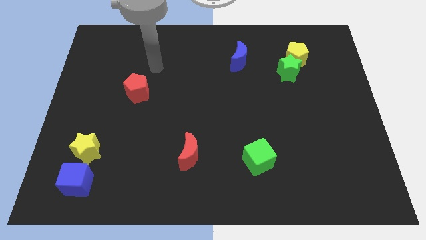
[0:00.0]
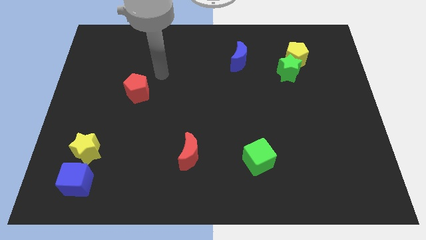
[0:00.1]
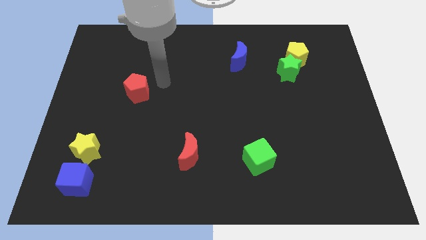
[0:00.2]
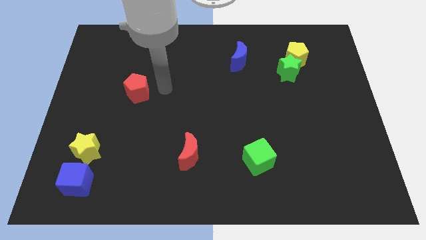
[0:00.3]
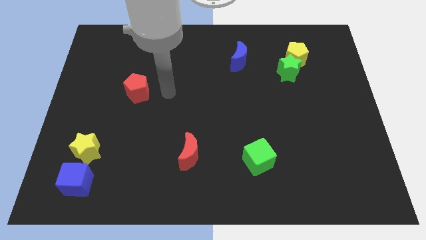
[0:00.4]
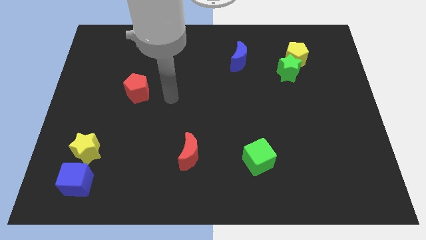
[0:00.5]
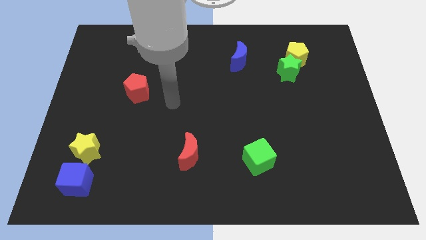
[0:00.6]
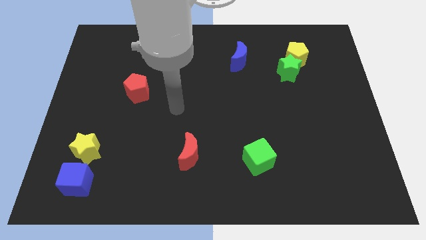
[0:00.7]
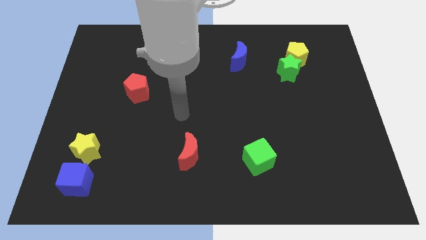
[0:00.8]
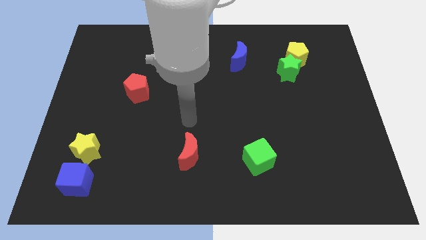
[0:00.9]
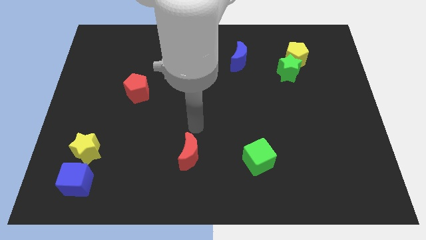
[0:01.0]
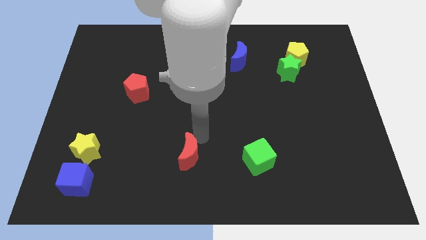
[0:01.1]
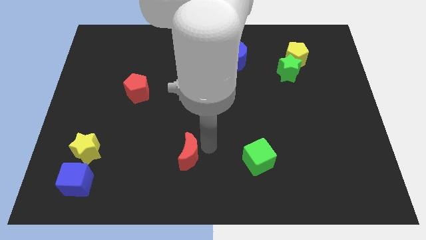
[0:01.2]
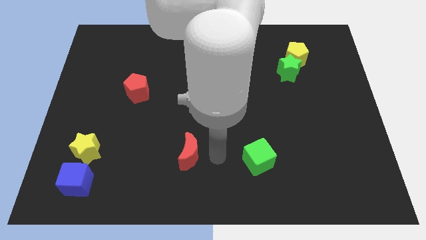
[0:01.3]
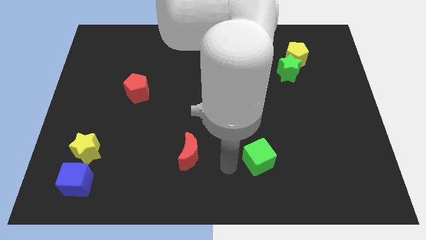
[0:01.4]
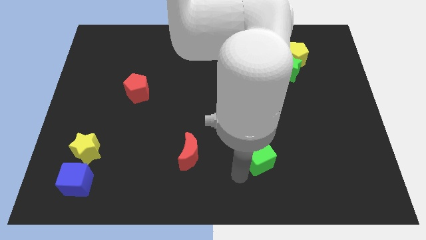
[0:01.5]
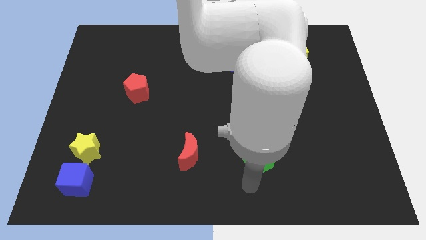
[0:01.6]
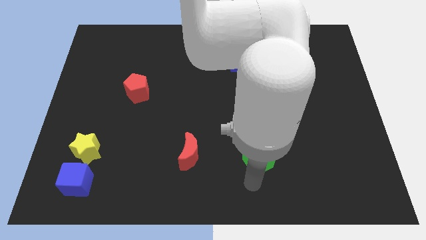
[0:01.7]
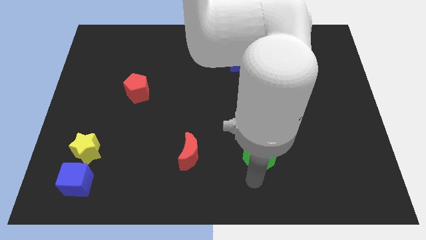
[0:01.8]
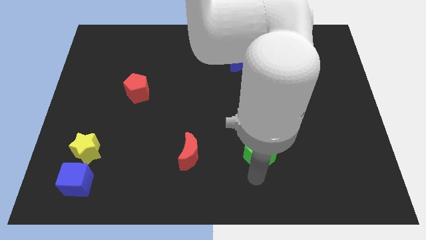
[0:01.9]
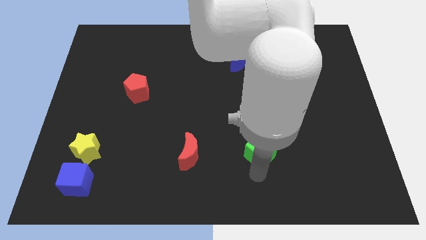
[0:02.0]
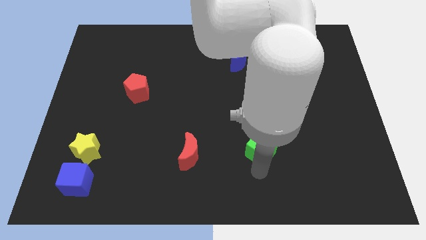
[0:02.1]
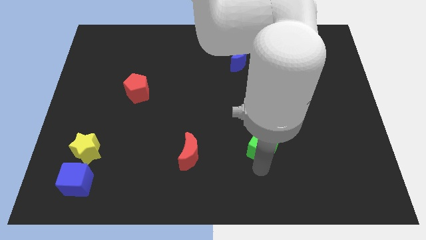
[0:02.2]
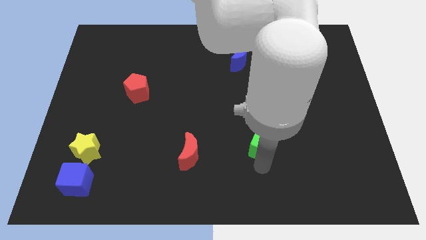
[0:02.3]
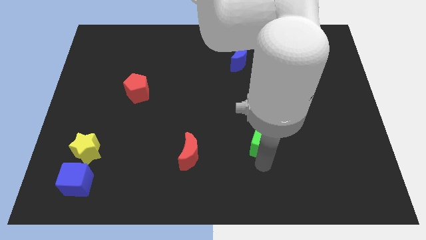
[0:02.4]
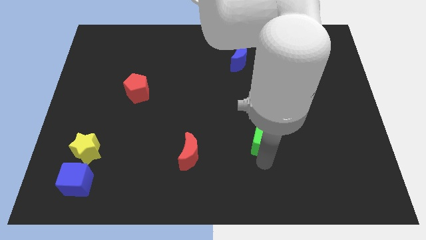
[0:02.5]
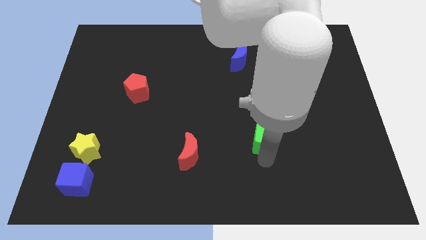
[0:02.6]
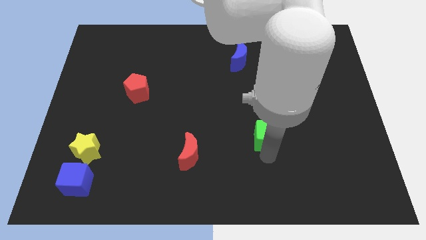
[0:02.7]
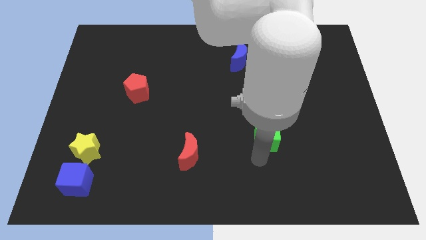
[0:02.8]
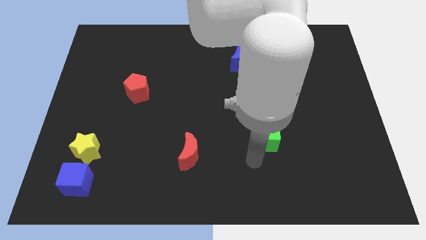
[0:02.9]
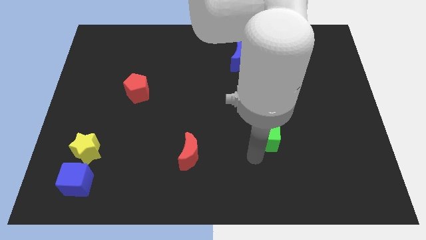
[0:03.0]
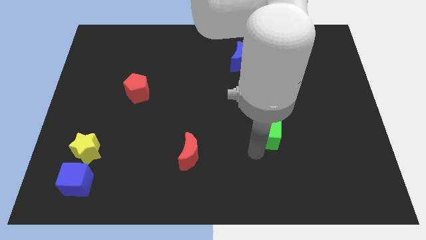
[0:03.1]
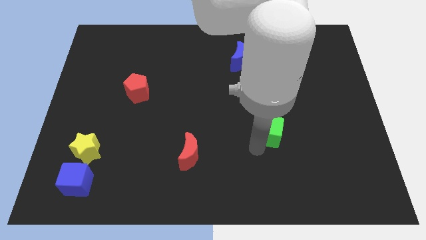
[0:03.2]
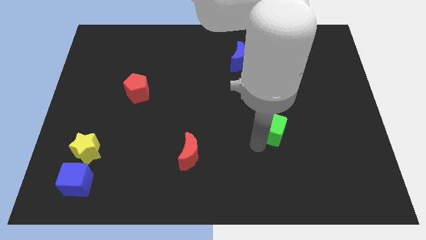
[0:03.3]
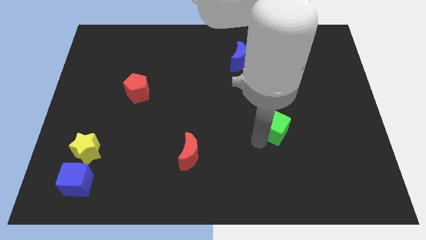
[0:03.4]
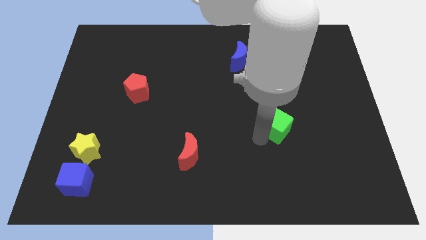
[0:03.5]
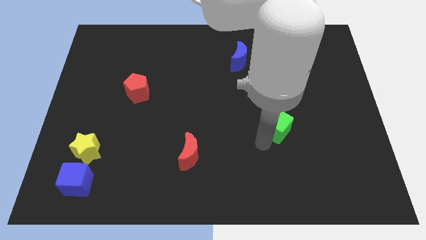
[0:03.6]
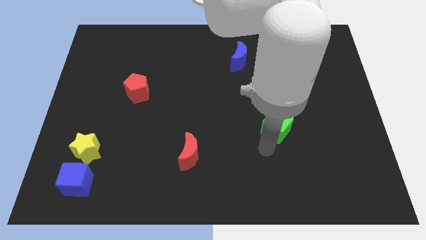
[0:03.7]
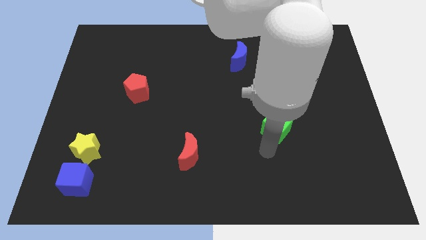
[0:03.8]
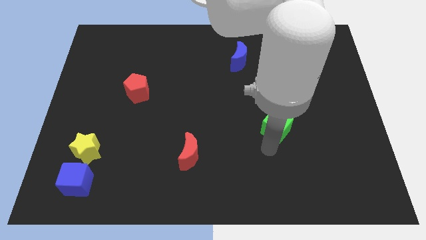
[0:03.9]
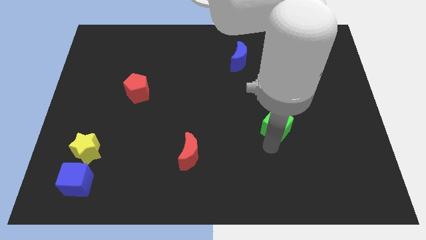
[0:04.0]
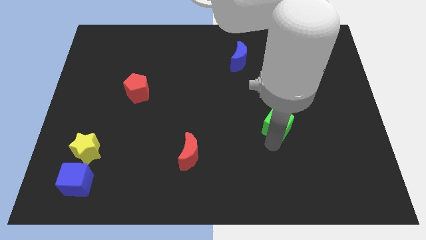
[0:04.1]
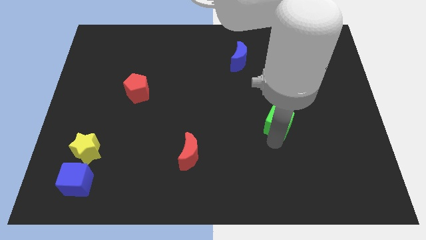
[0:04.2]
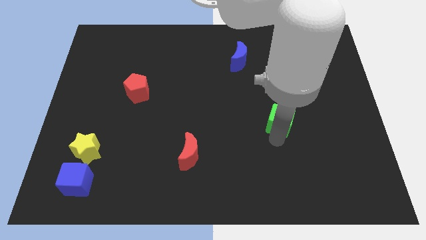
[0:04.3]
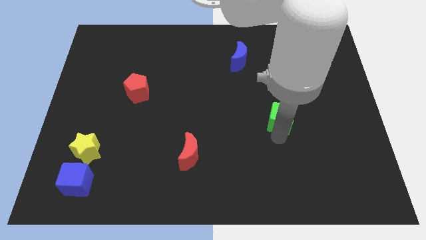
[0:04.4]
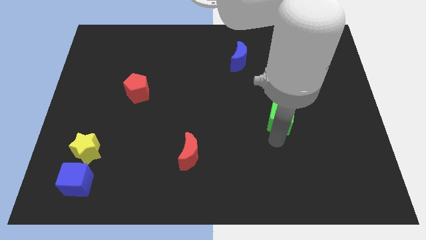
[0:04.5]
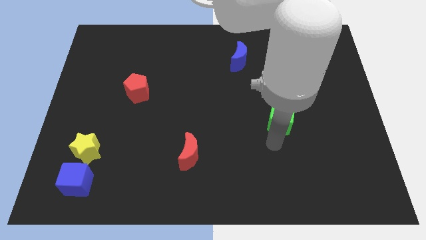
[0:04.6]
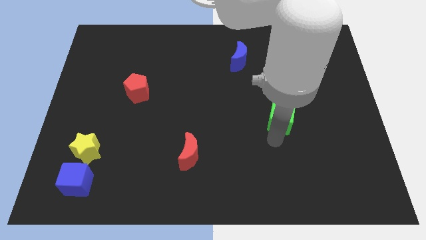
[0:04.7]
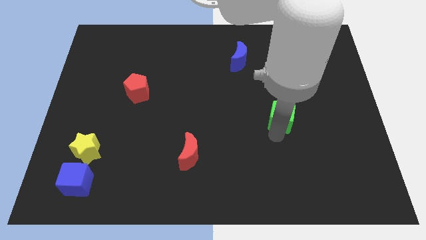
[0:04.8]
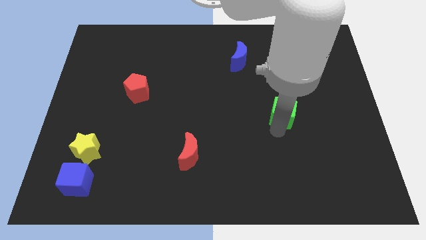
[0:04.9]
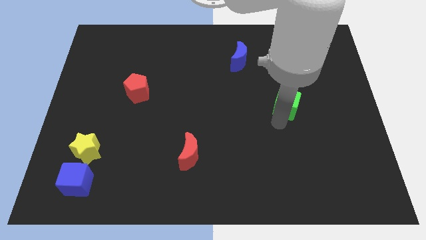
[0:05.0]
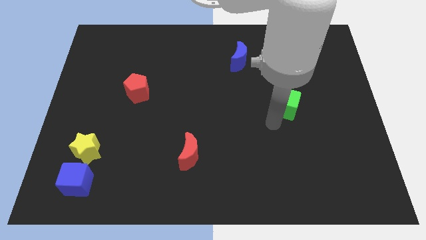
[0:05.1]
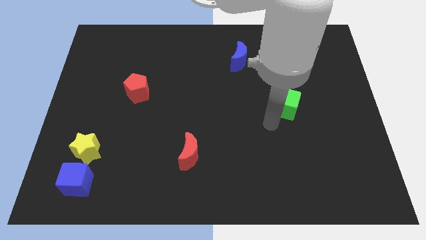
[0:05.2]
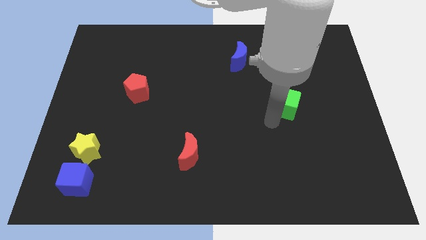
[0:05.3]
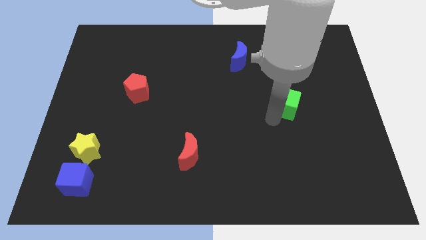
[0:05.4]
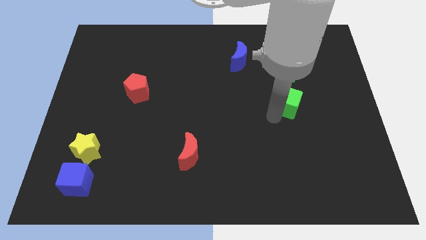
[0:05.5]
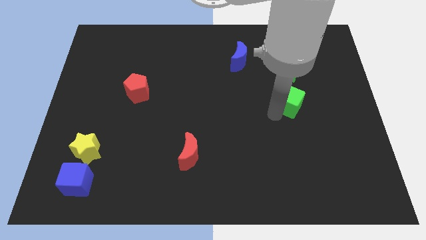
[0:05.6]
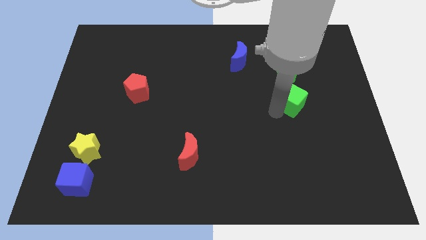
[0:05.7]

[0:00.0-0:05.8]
slide the green cube to the bottom of the yellow pentagon

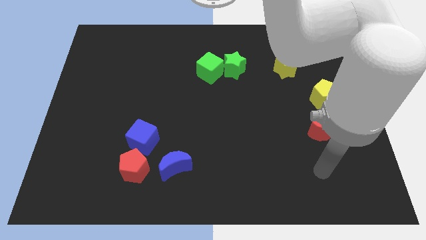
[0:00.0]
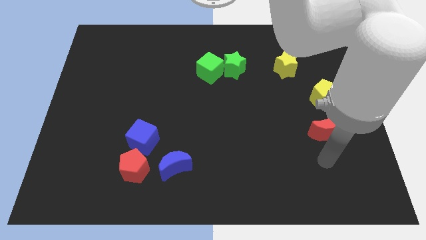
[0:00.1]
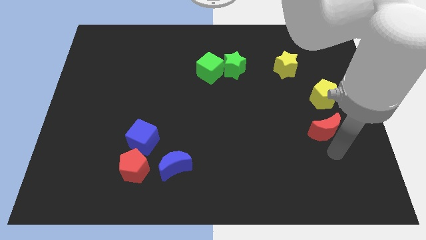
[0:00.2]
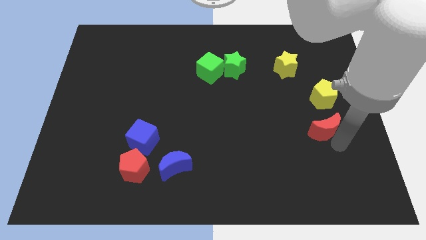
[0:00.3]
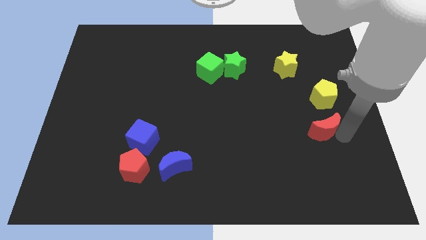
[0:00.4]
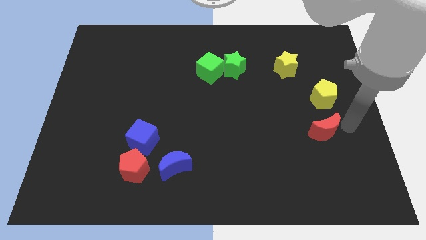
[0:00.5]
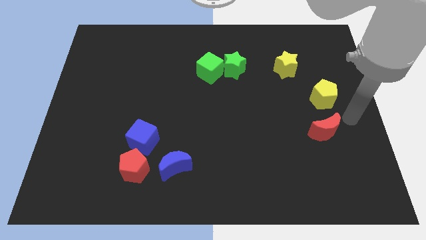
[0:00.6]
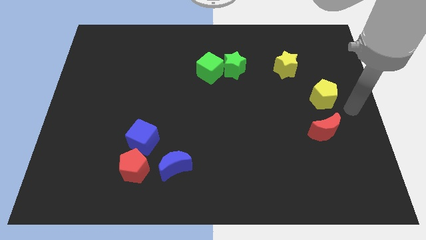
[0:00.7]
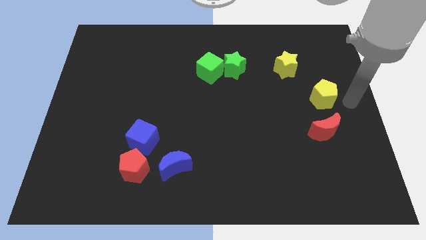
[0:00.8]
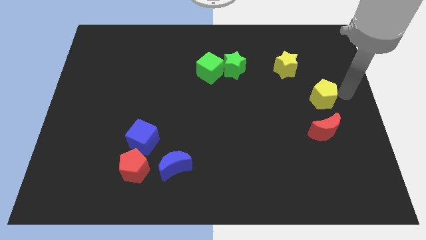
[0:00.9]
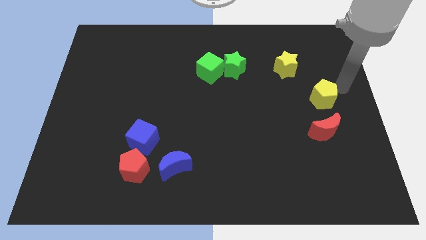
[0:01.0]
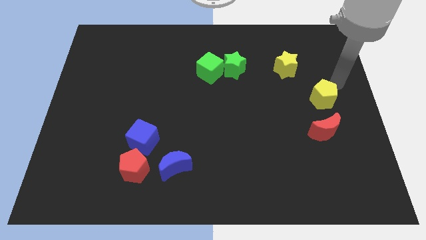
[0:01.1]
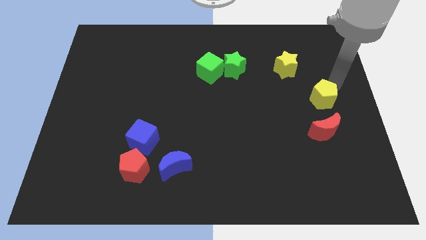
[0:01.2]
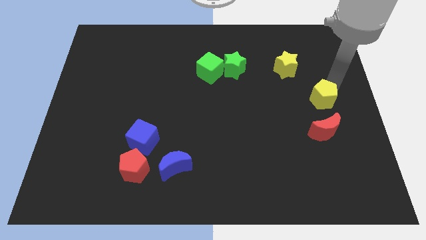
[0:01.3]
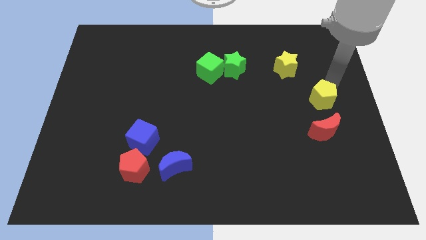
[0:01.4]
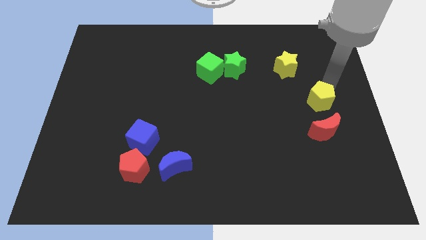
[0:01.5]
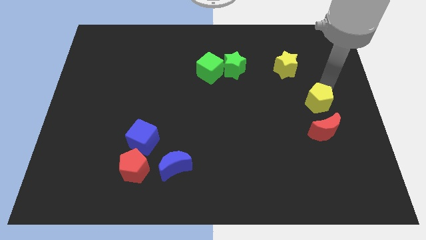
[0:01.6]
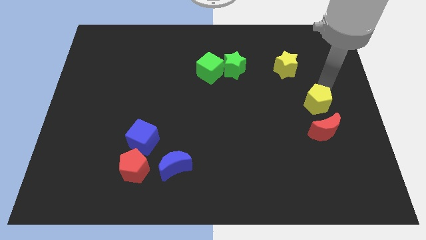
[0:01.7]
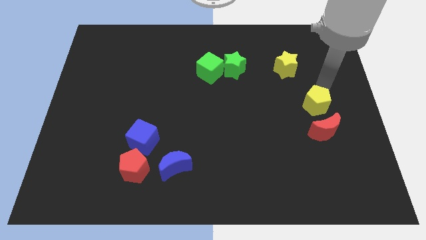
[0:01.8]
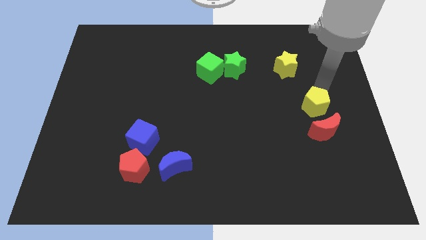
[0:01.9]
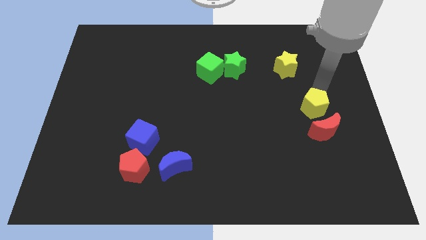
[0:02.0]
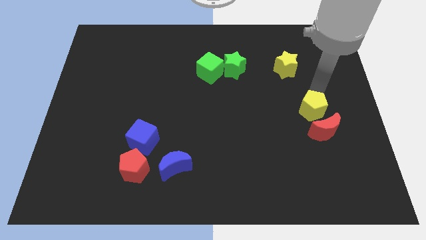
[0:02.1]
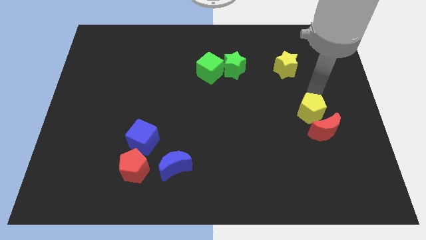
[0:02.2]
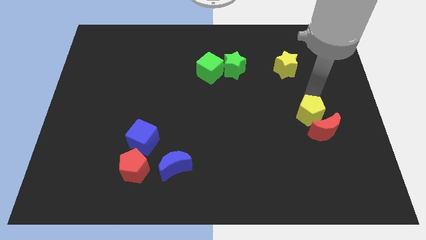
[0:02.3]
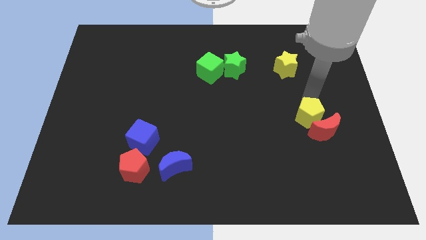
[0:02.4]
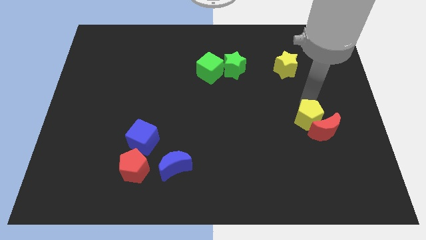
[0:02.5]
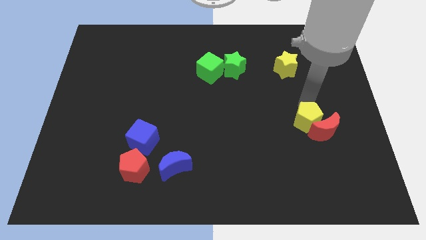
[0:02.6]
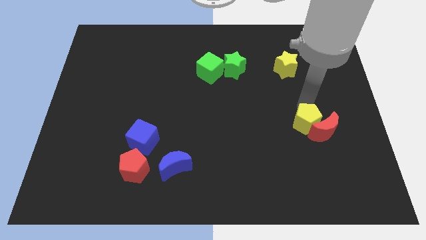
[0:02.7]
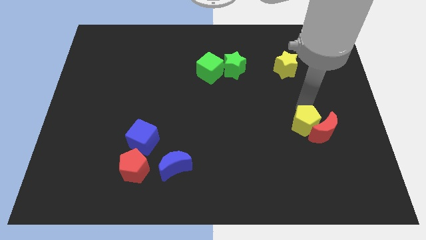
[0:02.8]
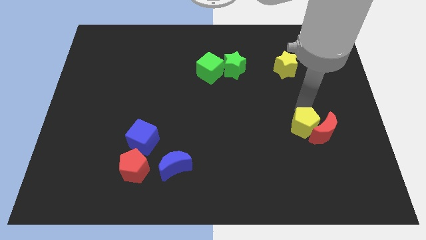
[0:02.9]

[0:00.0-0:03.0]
move the yellow pentagon to the bottom left of the red moon
